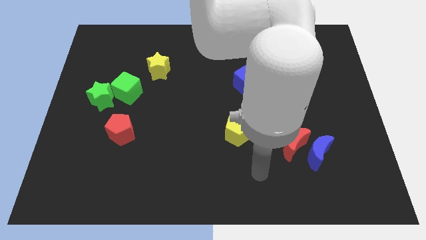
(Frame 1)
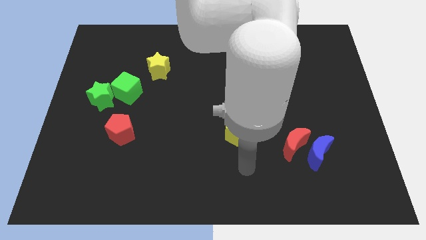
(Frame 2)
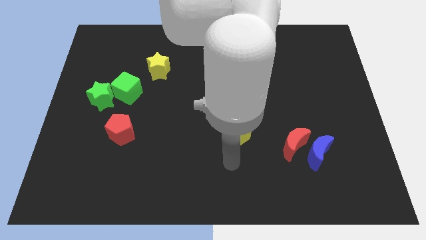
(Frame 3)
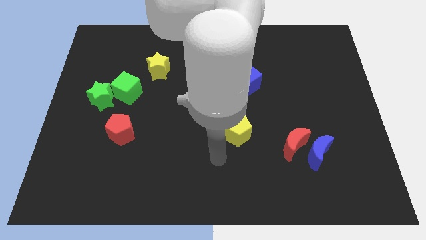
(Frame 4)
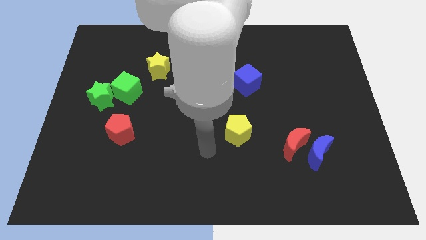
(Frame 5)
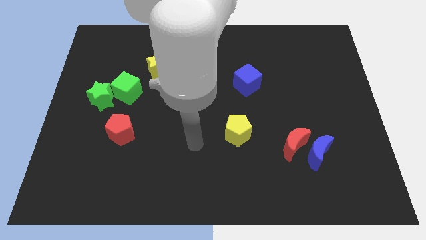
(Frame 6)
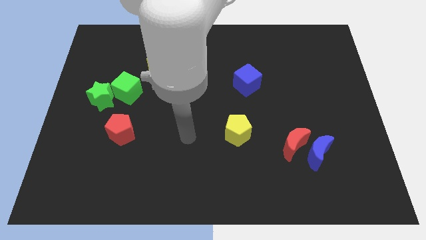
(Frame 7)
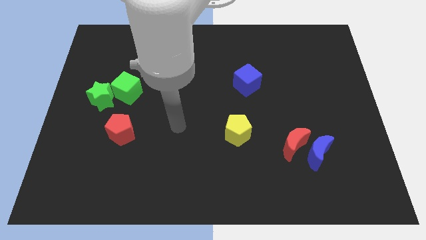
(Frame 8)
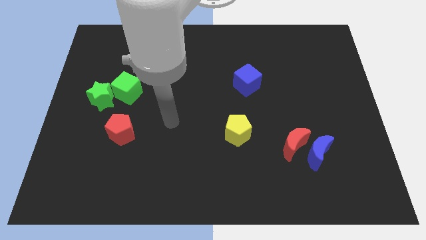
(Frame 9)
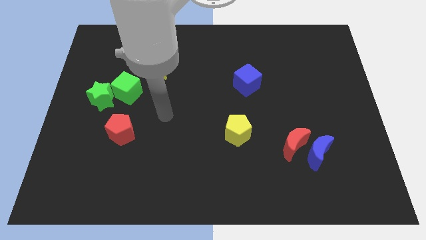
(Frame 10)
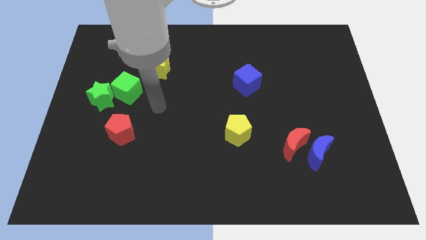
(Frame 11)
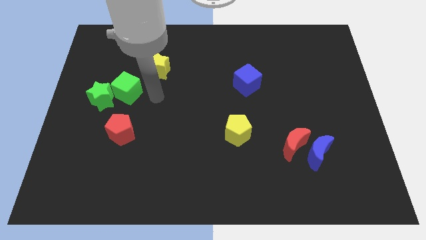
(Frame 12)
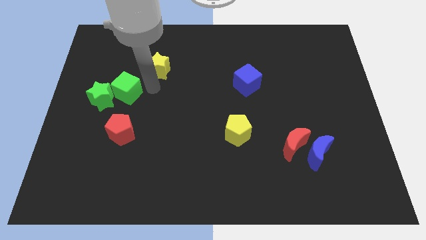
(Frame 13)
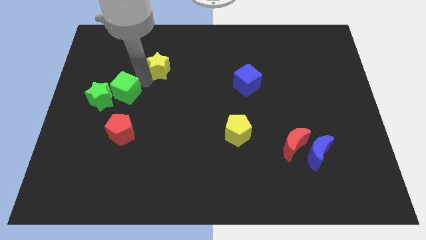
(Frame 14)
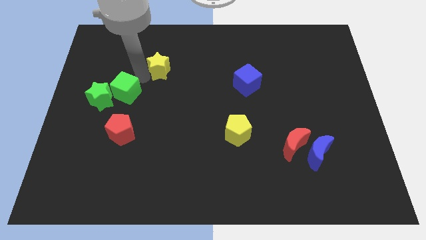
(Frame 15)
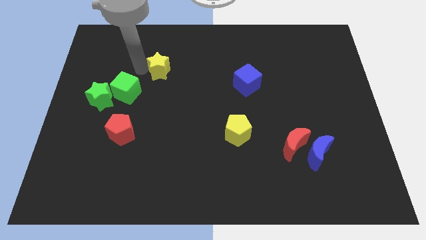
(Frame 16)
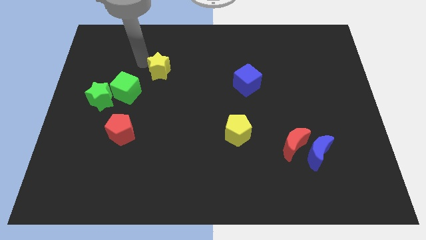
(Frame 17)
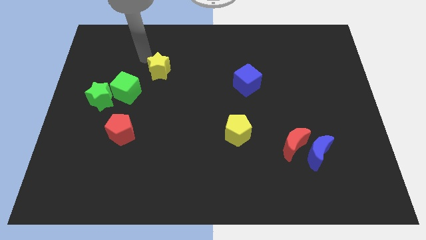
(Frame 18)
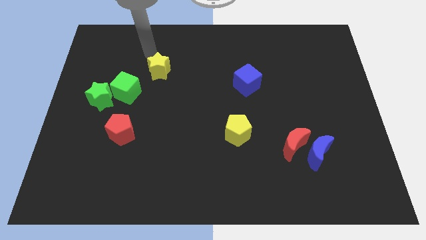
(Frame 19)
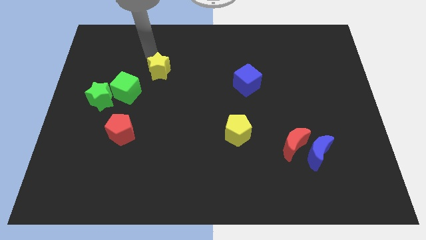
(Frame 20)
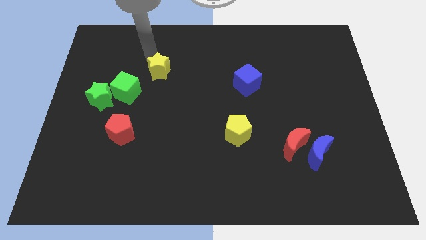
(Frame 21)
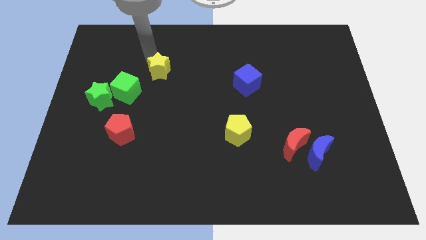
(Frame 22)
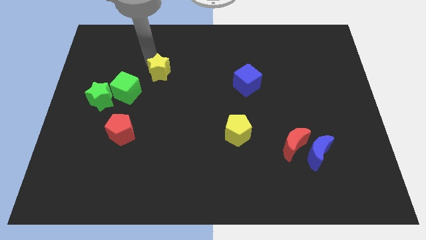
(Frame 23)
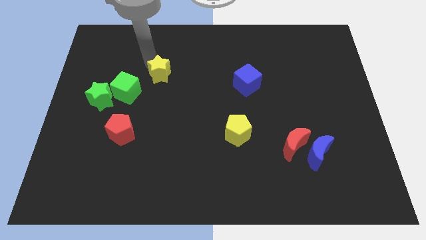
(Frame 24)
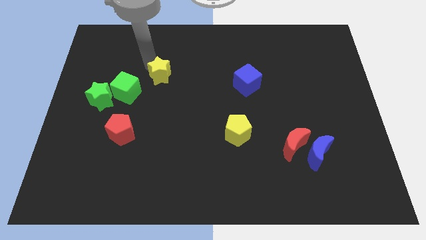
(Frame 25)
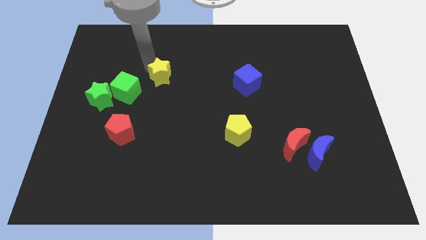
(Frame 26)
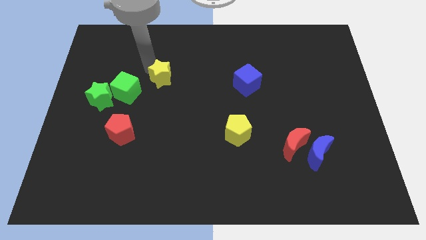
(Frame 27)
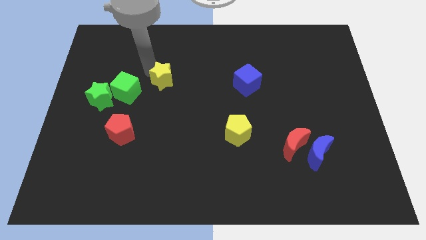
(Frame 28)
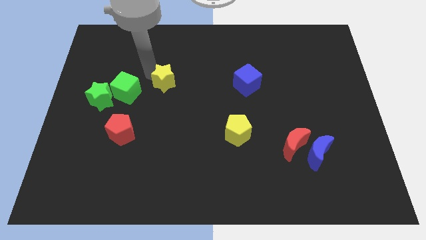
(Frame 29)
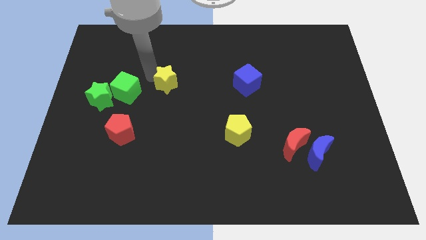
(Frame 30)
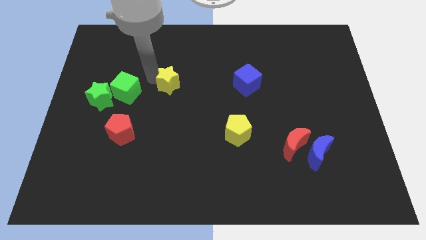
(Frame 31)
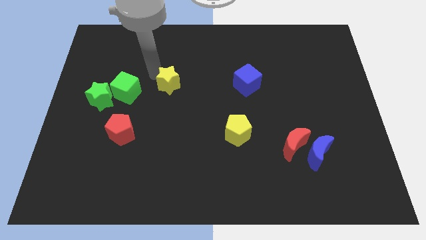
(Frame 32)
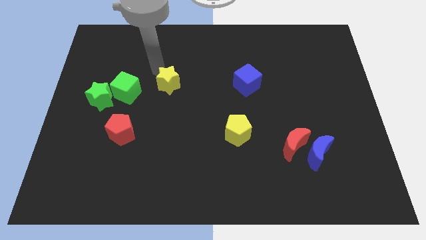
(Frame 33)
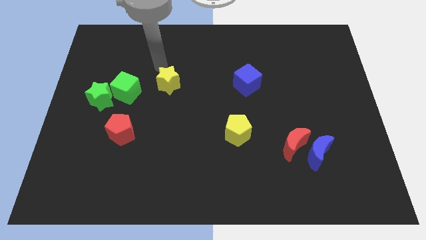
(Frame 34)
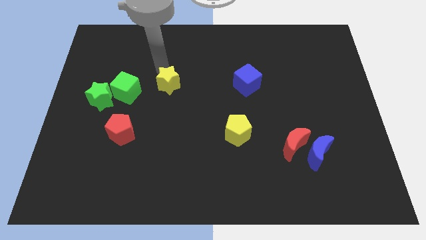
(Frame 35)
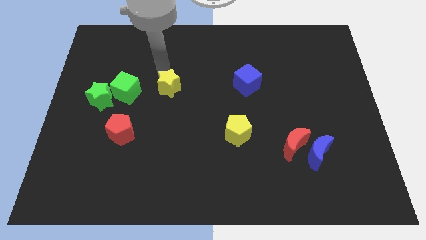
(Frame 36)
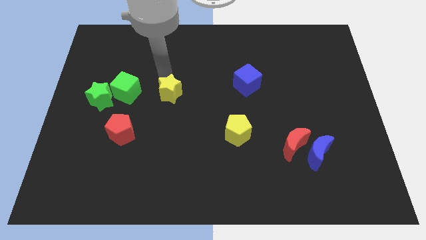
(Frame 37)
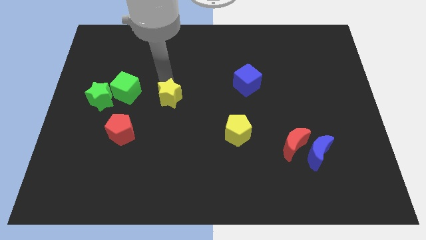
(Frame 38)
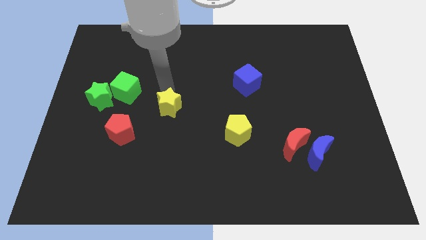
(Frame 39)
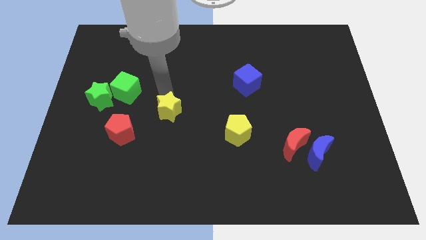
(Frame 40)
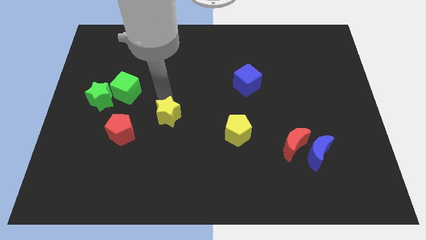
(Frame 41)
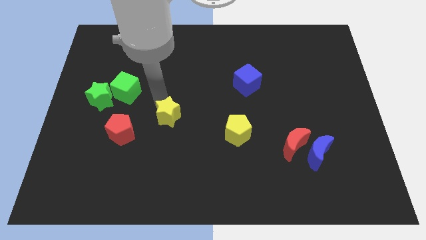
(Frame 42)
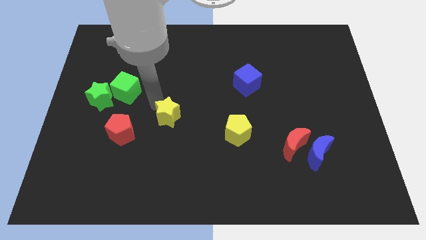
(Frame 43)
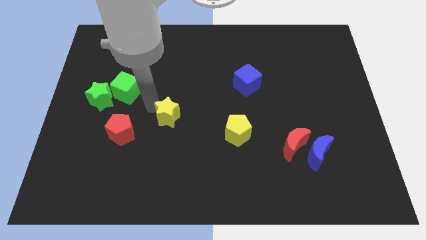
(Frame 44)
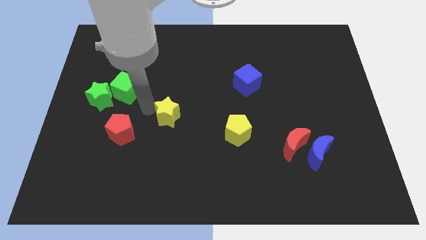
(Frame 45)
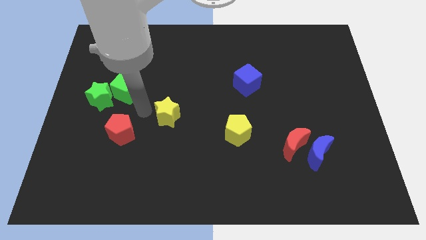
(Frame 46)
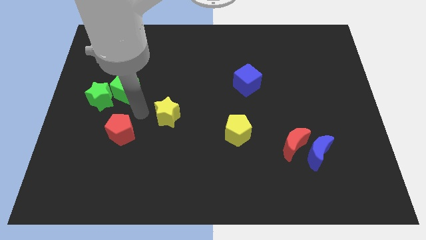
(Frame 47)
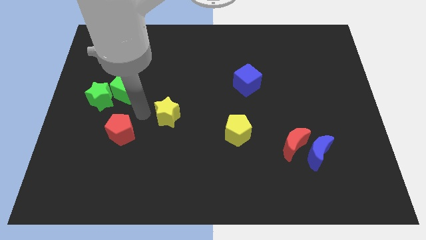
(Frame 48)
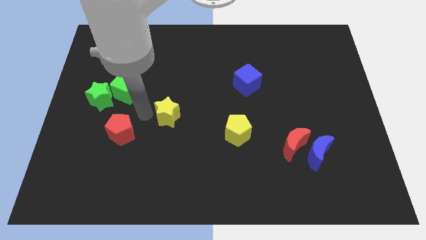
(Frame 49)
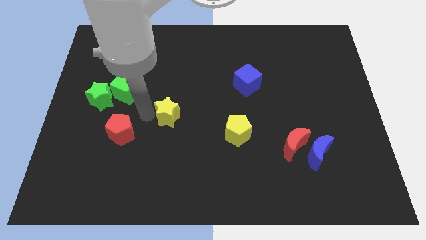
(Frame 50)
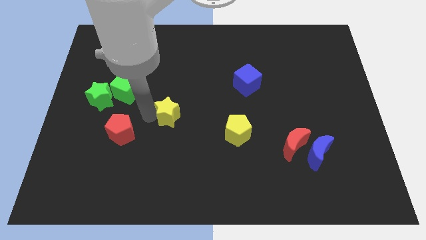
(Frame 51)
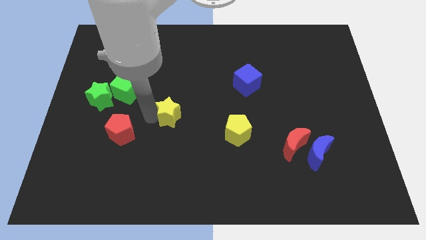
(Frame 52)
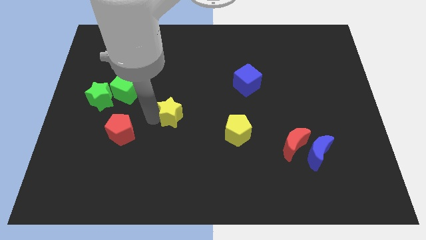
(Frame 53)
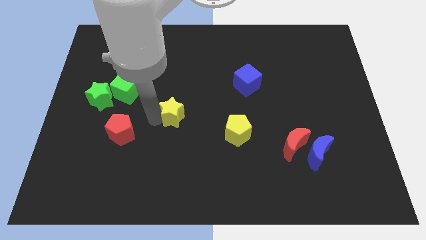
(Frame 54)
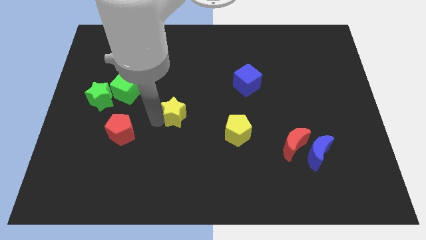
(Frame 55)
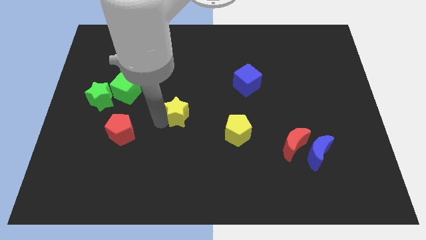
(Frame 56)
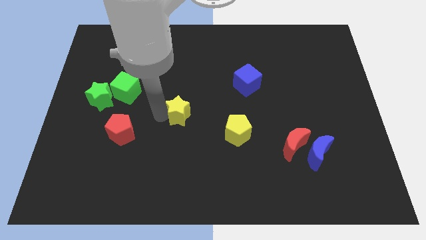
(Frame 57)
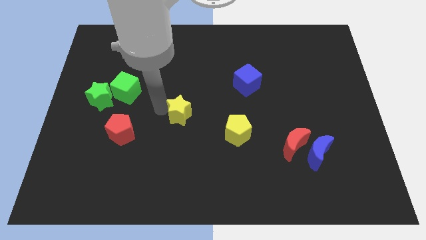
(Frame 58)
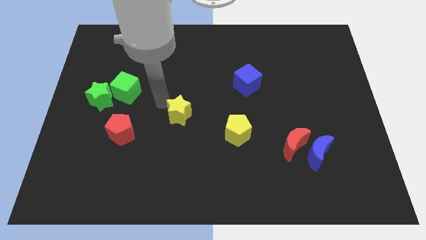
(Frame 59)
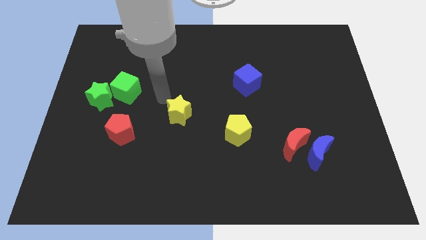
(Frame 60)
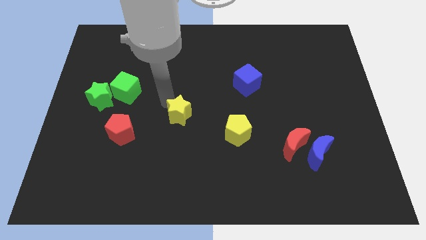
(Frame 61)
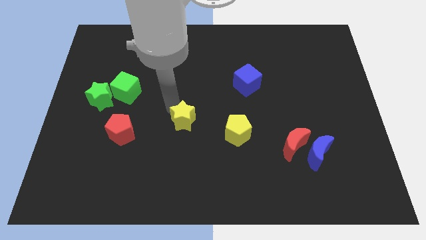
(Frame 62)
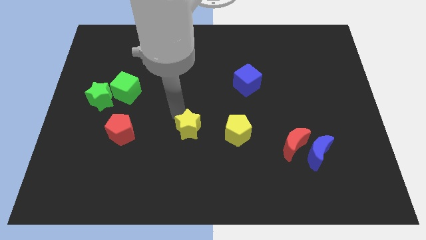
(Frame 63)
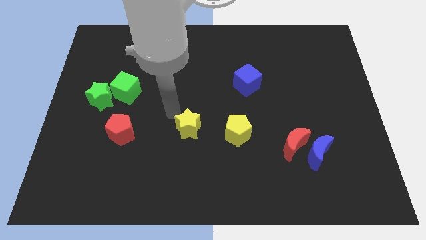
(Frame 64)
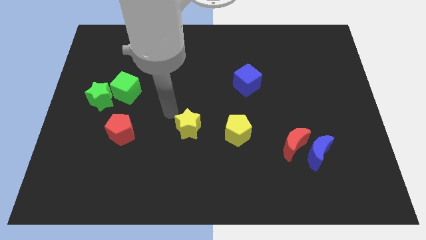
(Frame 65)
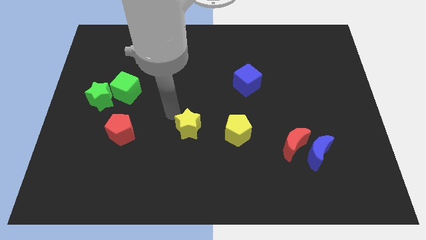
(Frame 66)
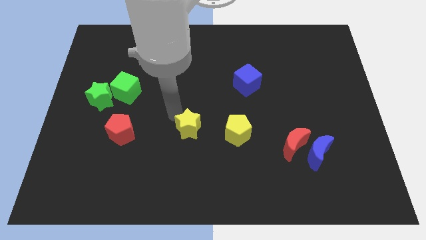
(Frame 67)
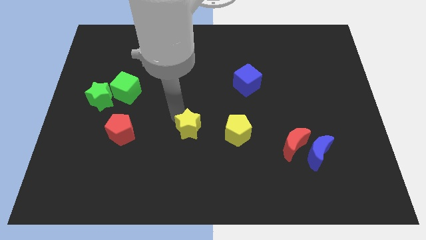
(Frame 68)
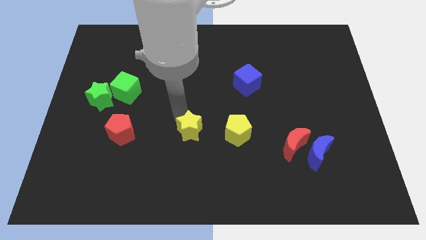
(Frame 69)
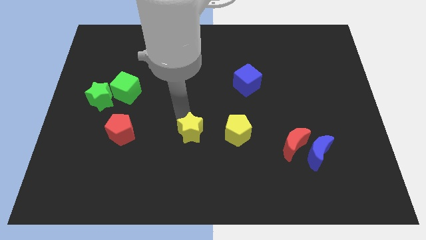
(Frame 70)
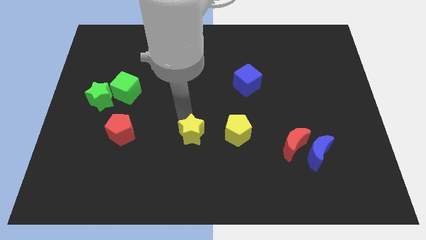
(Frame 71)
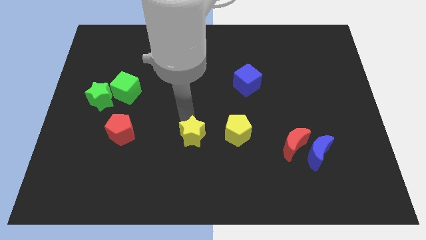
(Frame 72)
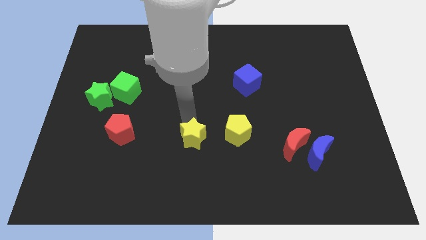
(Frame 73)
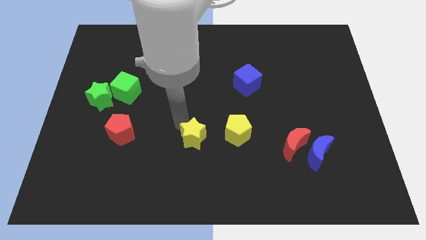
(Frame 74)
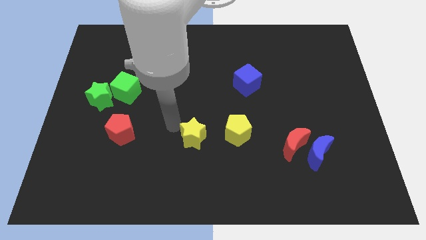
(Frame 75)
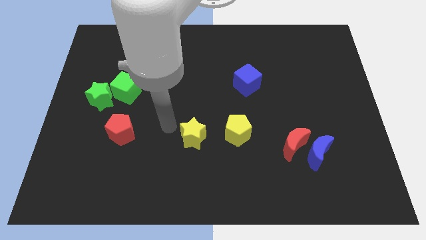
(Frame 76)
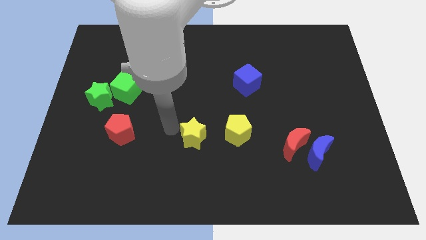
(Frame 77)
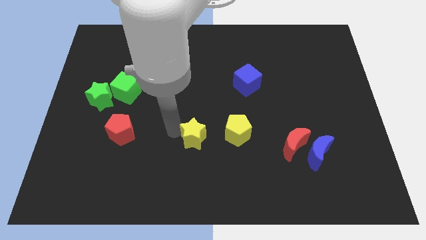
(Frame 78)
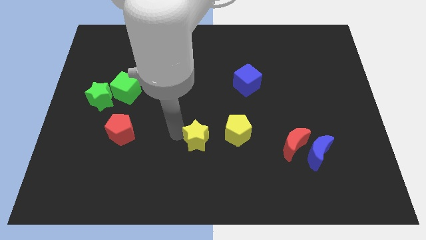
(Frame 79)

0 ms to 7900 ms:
slide the yellow star down and right

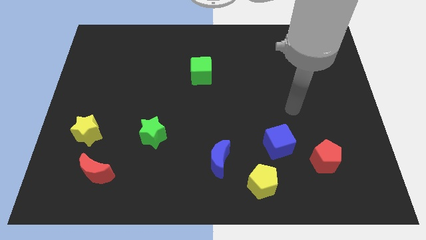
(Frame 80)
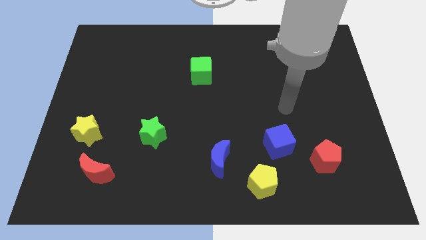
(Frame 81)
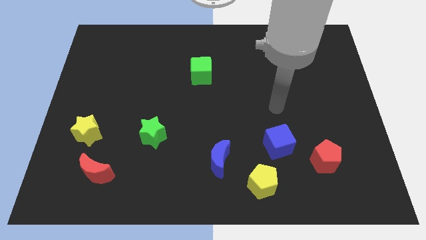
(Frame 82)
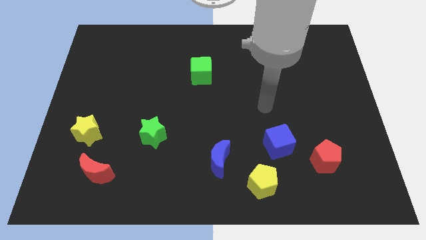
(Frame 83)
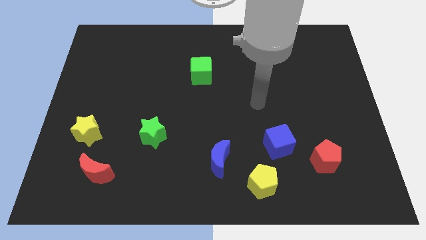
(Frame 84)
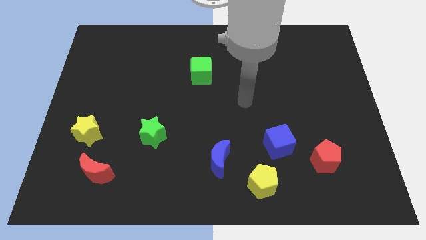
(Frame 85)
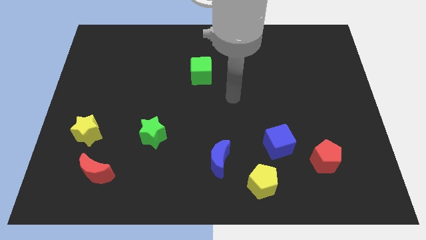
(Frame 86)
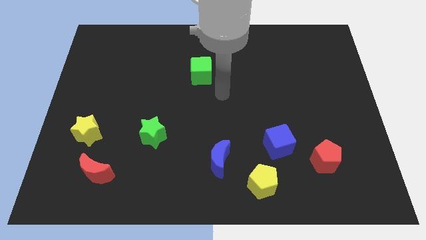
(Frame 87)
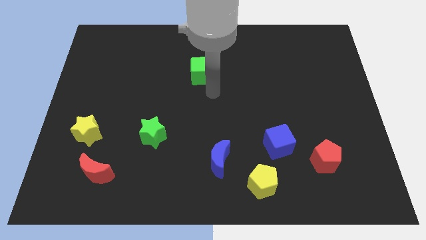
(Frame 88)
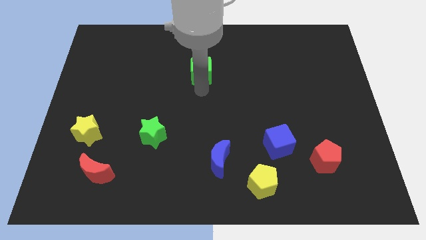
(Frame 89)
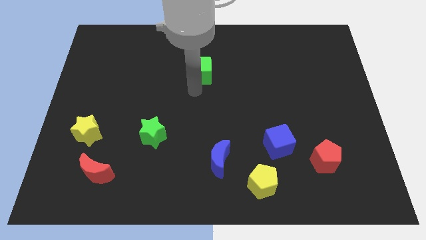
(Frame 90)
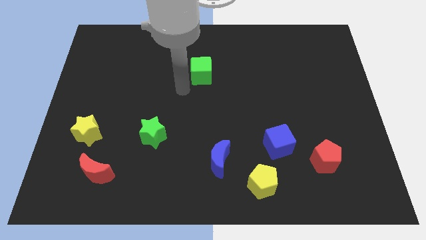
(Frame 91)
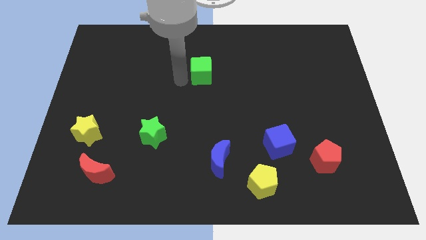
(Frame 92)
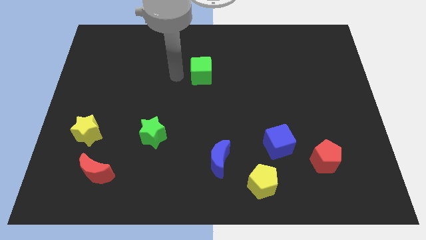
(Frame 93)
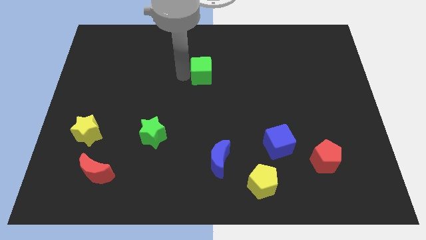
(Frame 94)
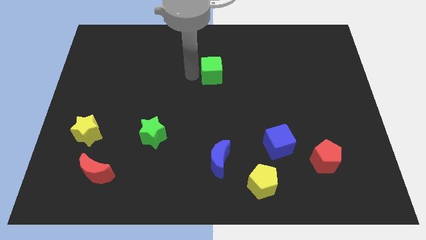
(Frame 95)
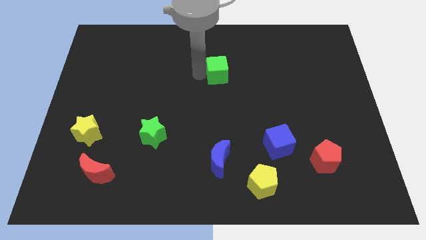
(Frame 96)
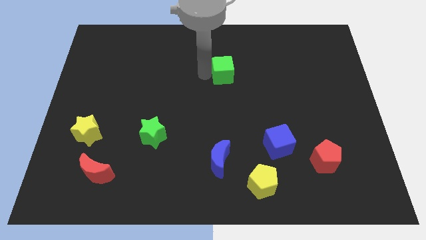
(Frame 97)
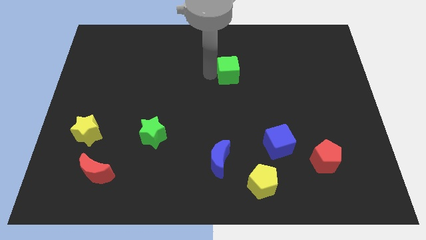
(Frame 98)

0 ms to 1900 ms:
move the green cube to the right somewhat
